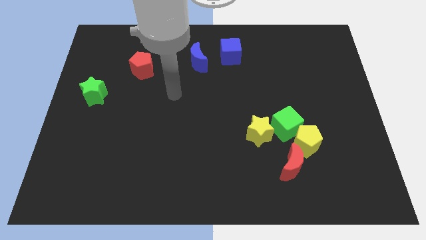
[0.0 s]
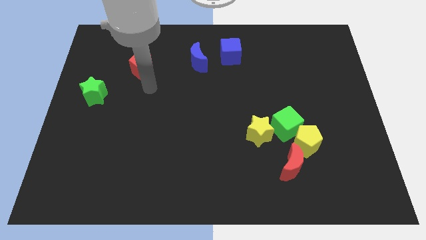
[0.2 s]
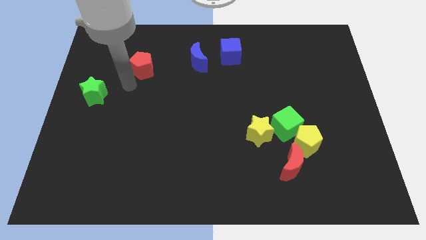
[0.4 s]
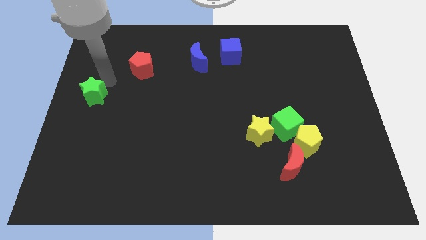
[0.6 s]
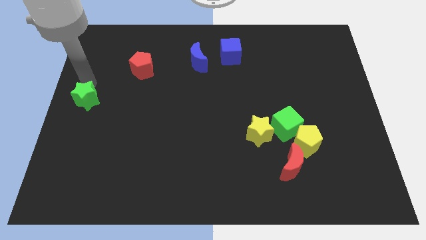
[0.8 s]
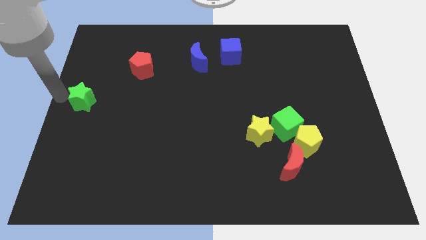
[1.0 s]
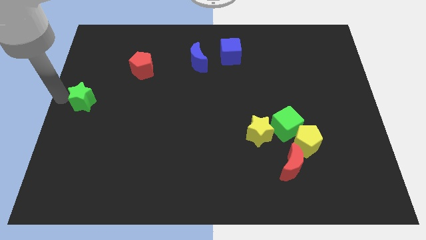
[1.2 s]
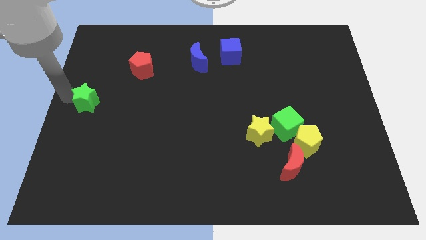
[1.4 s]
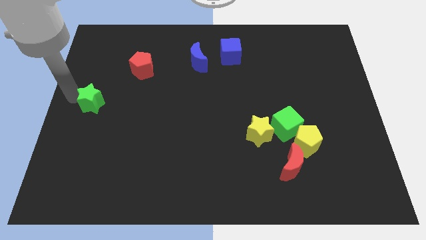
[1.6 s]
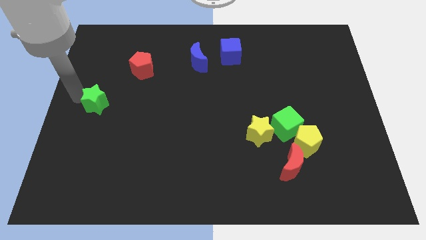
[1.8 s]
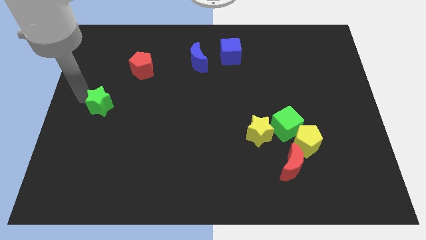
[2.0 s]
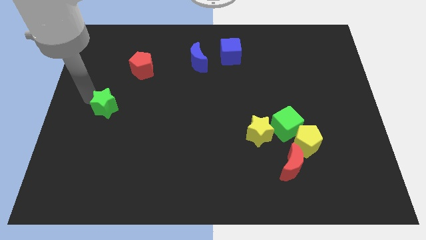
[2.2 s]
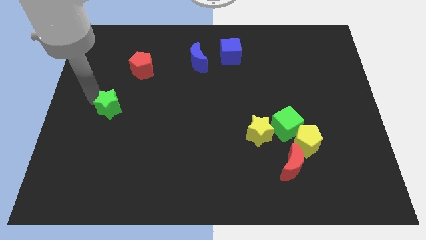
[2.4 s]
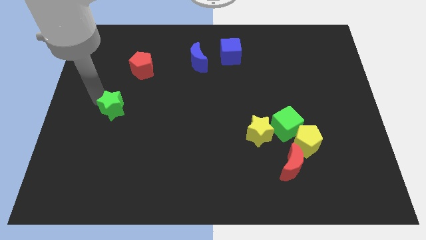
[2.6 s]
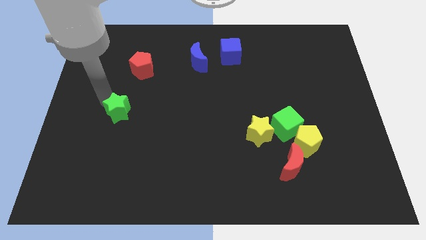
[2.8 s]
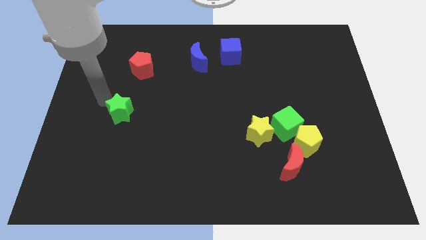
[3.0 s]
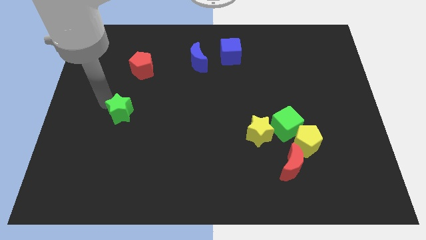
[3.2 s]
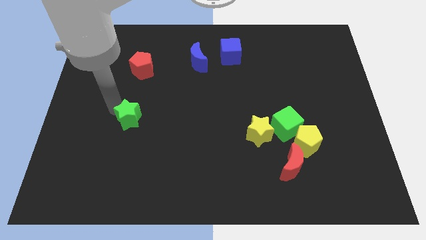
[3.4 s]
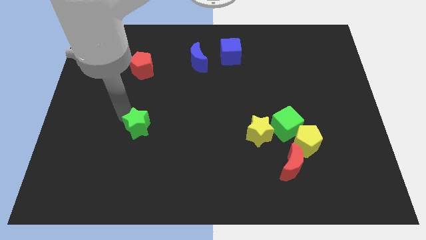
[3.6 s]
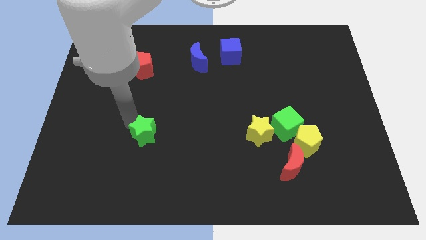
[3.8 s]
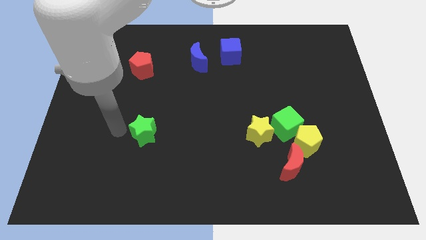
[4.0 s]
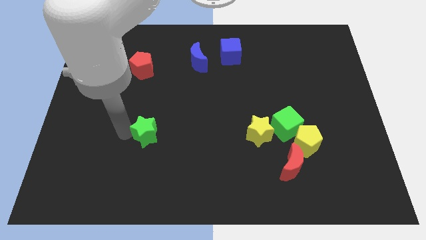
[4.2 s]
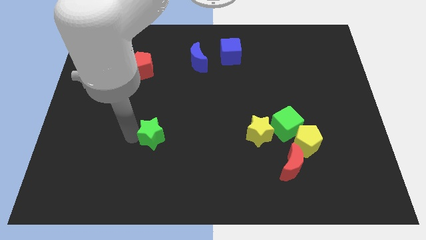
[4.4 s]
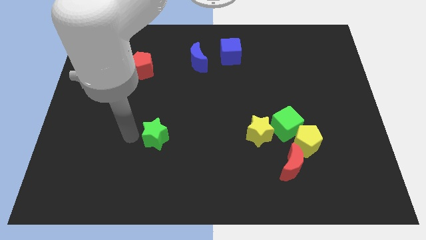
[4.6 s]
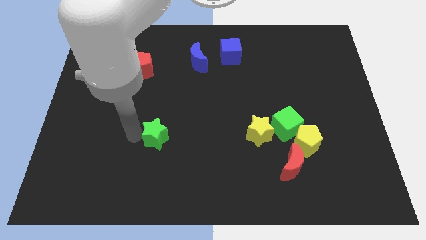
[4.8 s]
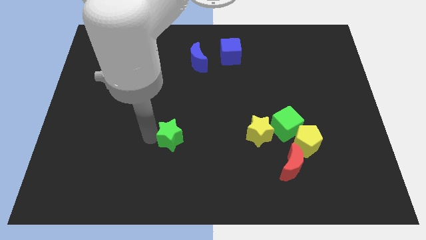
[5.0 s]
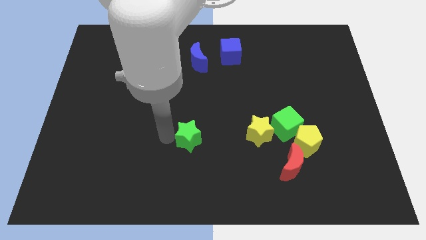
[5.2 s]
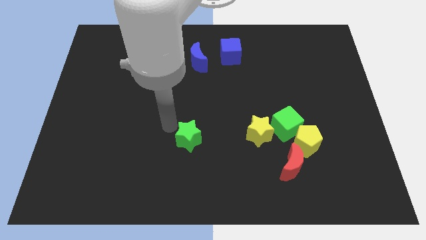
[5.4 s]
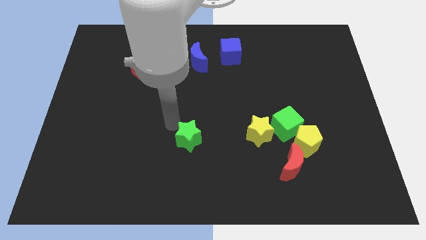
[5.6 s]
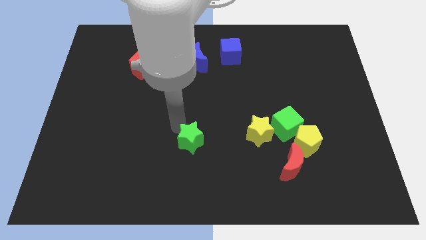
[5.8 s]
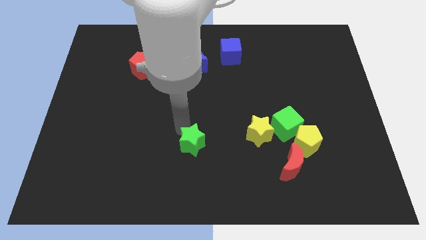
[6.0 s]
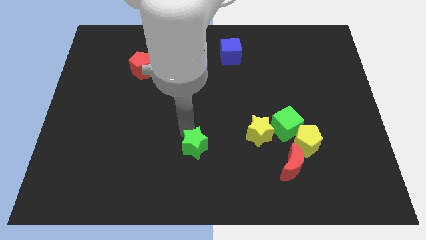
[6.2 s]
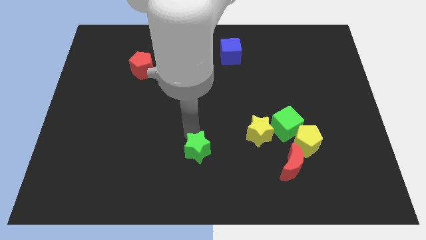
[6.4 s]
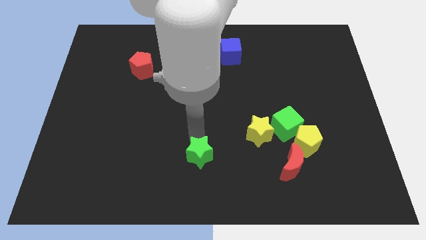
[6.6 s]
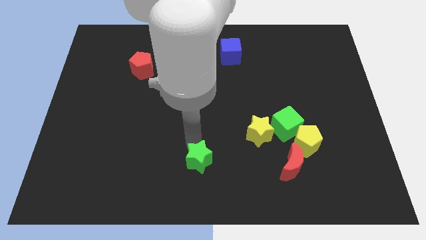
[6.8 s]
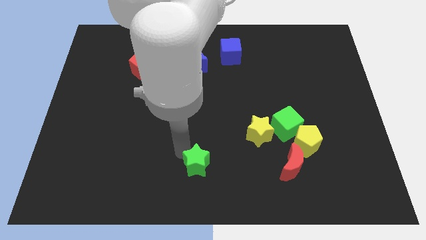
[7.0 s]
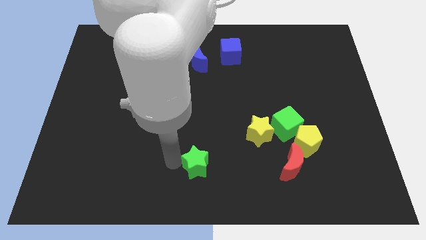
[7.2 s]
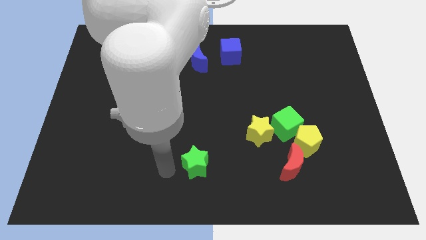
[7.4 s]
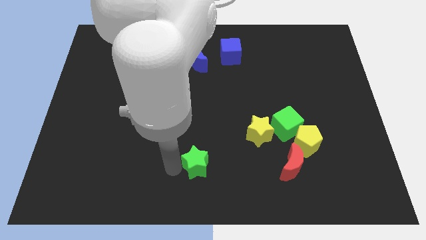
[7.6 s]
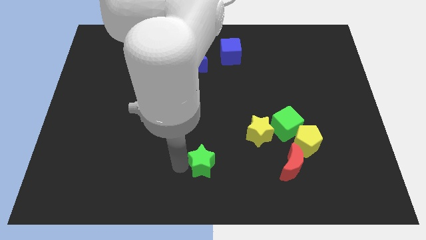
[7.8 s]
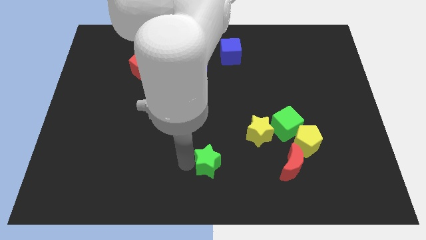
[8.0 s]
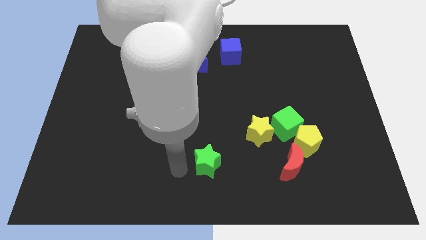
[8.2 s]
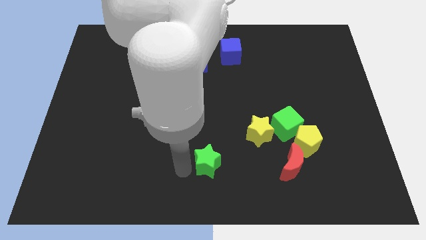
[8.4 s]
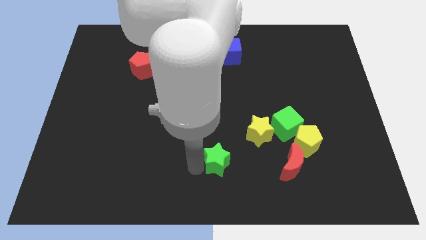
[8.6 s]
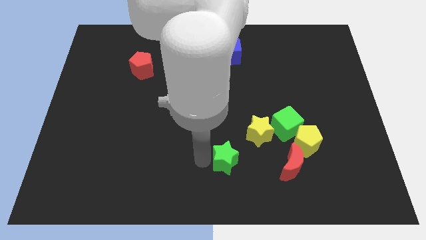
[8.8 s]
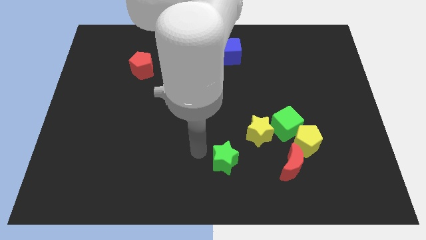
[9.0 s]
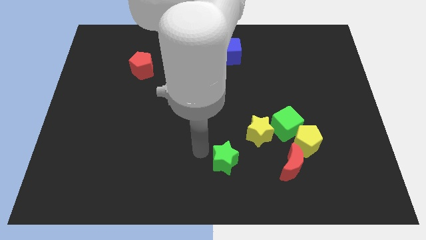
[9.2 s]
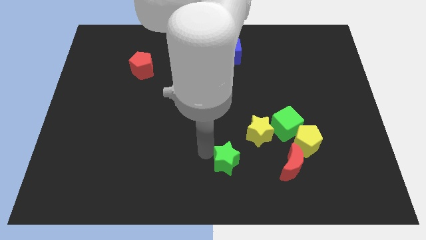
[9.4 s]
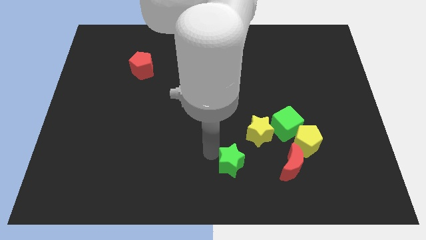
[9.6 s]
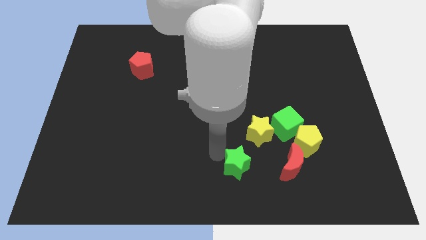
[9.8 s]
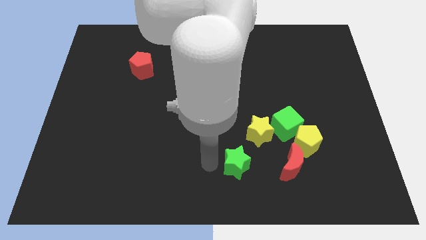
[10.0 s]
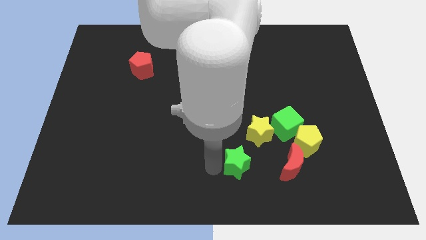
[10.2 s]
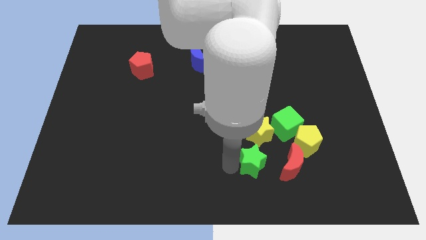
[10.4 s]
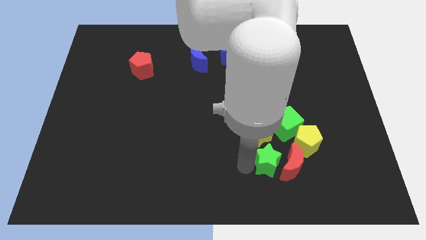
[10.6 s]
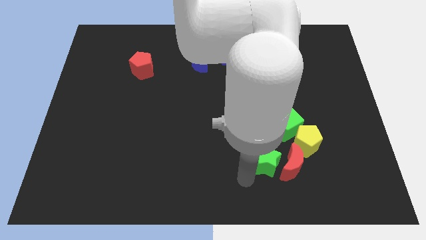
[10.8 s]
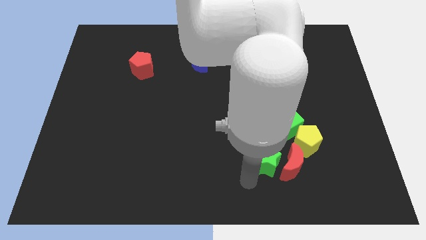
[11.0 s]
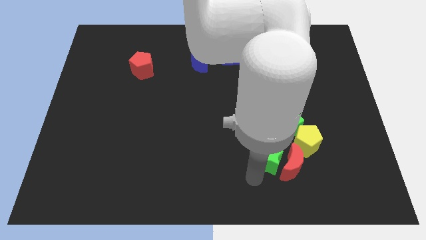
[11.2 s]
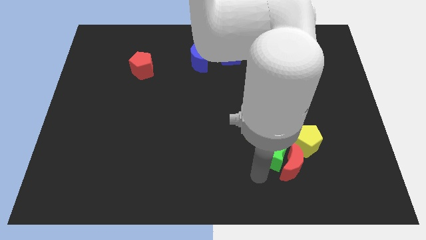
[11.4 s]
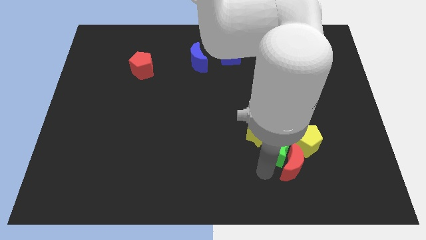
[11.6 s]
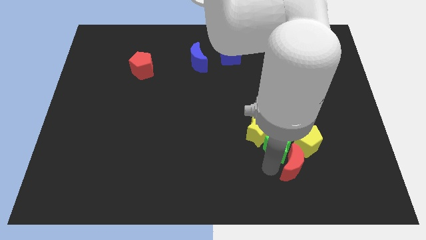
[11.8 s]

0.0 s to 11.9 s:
slide the green star next to the yellow pentagon
